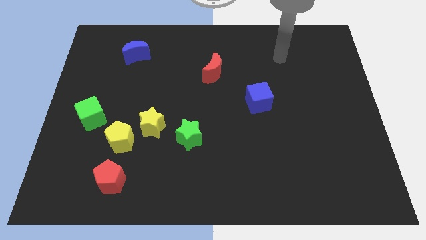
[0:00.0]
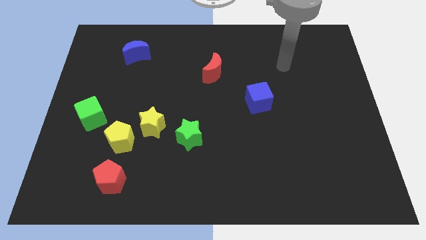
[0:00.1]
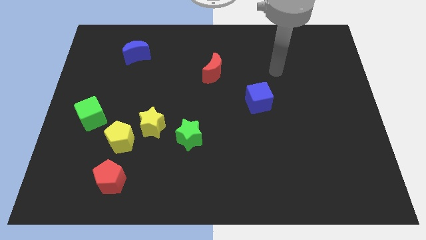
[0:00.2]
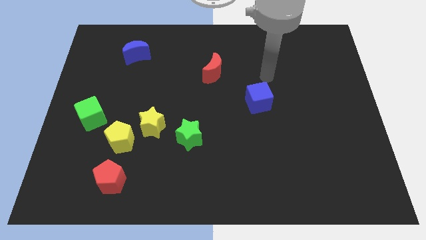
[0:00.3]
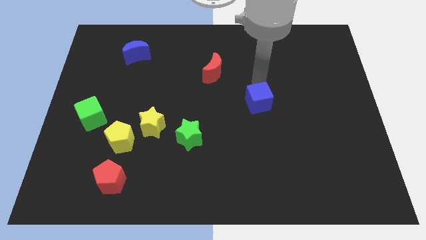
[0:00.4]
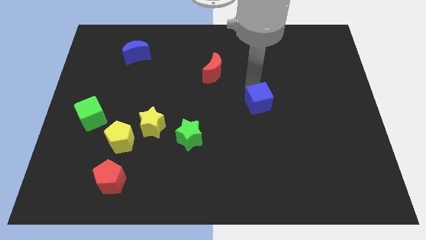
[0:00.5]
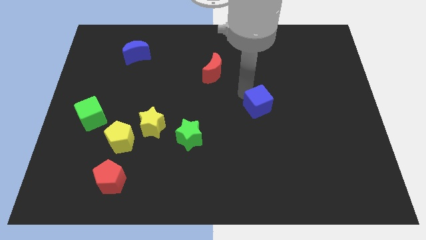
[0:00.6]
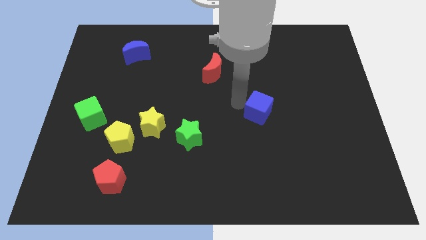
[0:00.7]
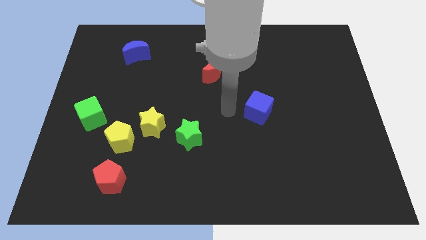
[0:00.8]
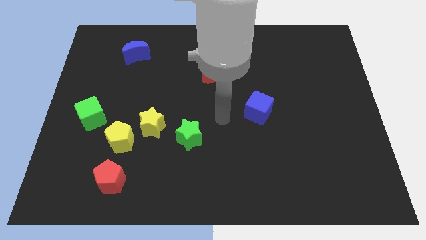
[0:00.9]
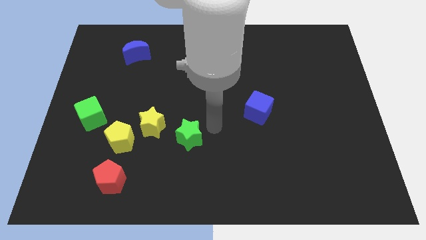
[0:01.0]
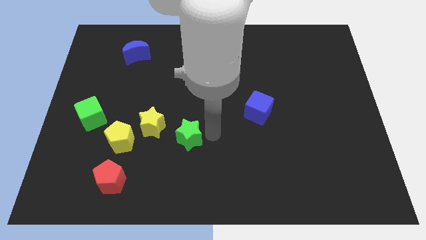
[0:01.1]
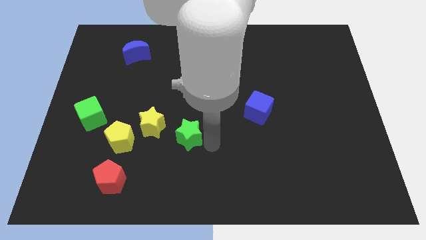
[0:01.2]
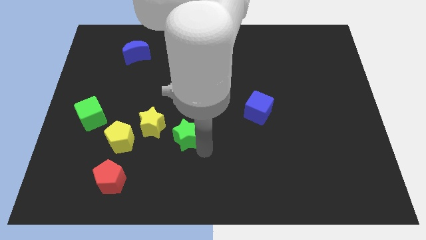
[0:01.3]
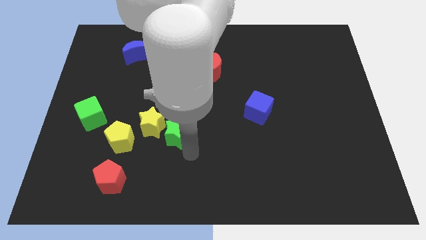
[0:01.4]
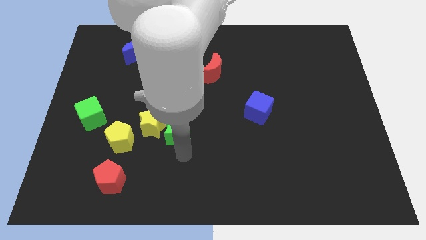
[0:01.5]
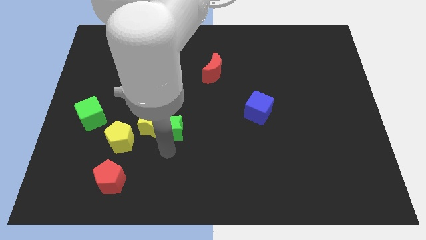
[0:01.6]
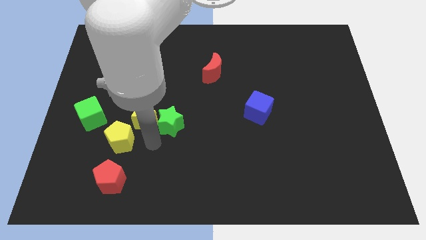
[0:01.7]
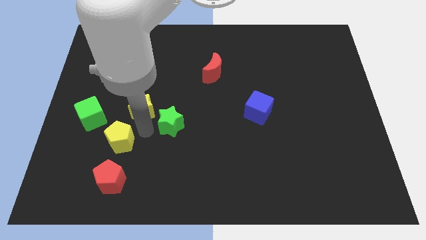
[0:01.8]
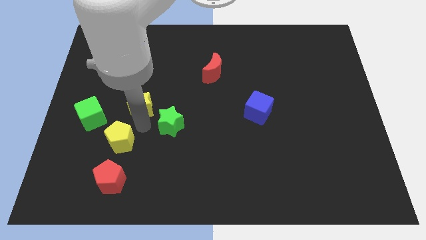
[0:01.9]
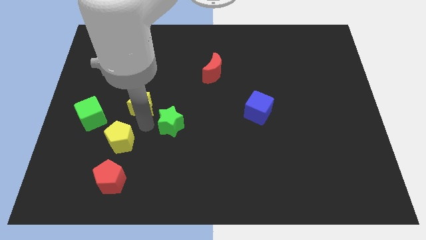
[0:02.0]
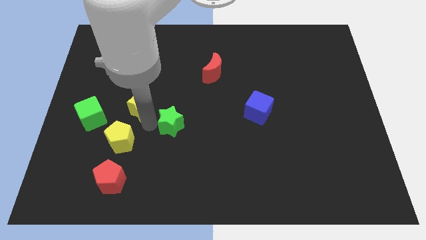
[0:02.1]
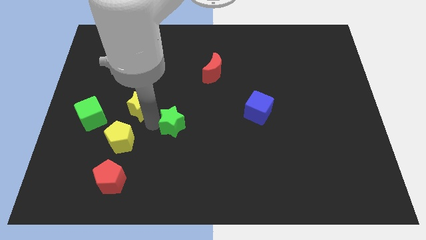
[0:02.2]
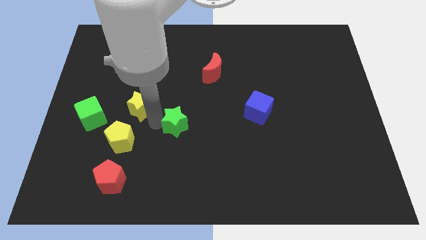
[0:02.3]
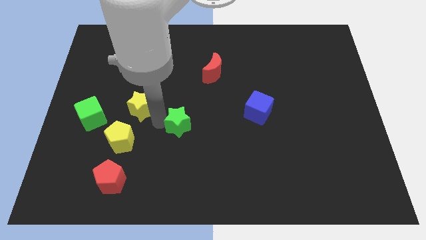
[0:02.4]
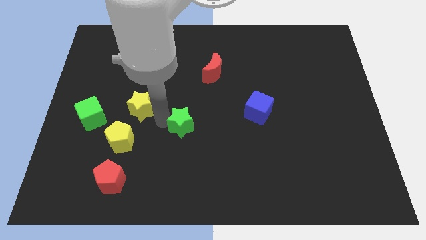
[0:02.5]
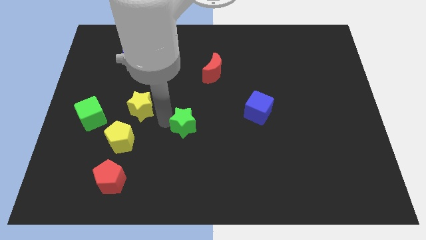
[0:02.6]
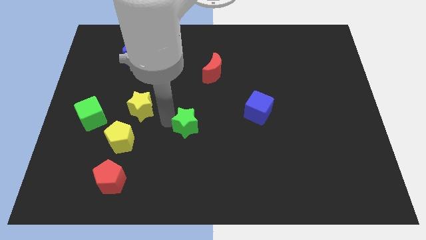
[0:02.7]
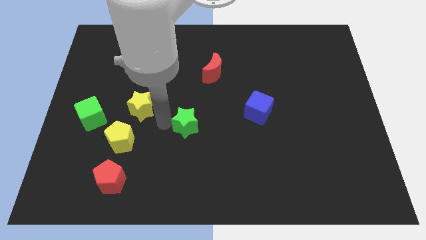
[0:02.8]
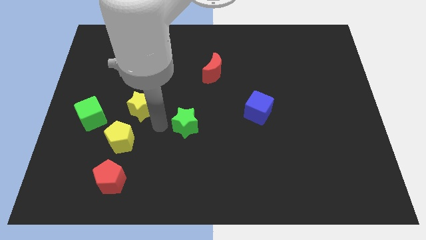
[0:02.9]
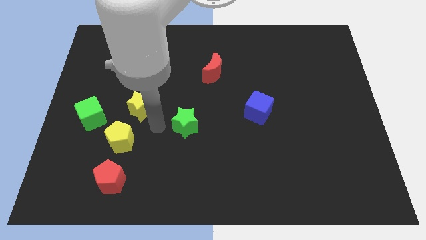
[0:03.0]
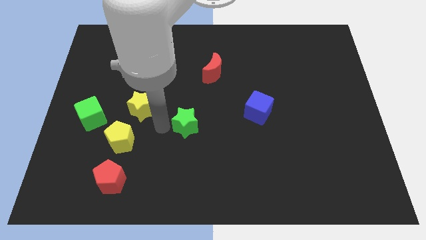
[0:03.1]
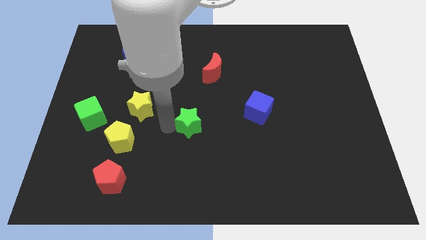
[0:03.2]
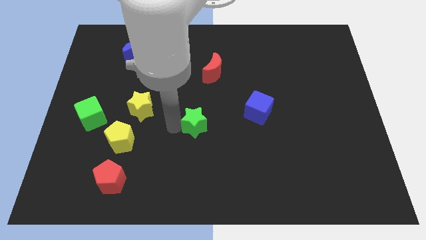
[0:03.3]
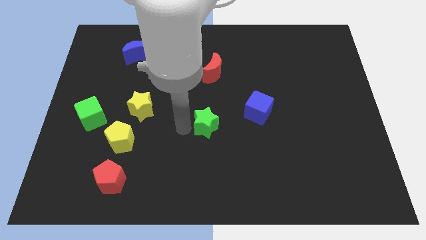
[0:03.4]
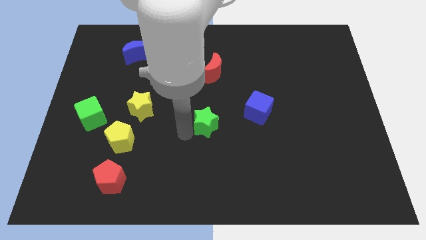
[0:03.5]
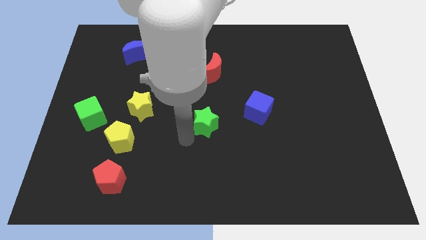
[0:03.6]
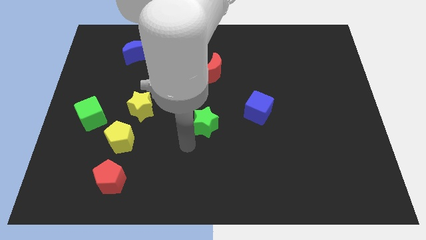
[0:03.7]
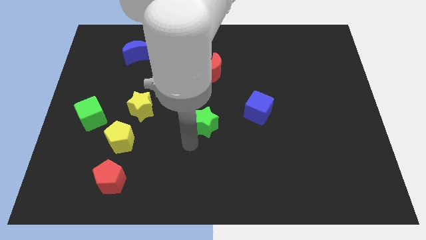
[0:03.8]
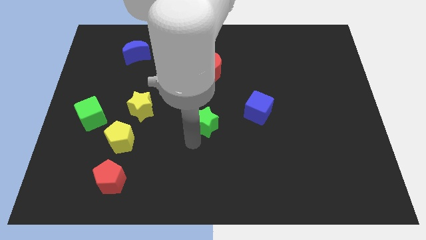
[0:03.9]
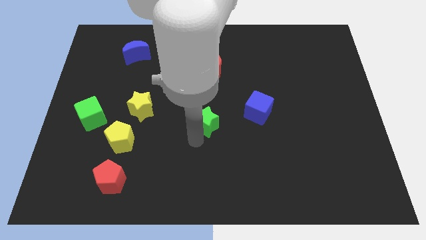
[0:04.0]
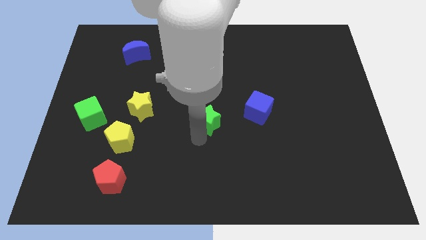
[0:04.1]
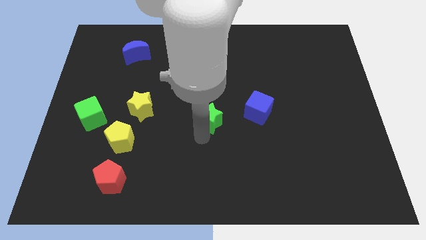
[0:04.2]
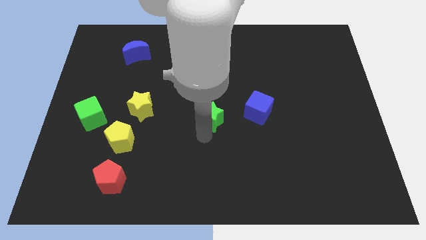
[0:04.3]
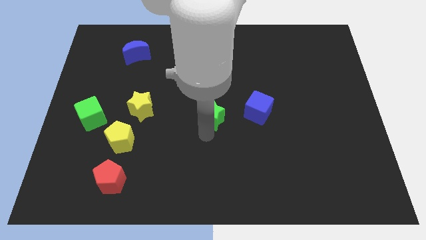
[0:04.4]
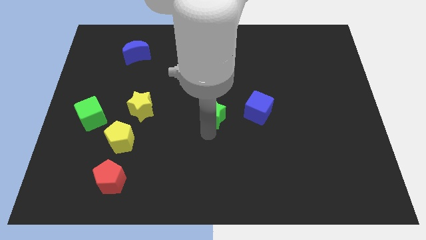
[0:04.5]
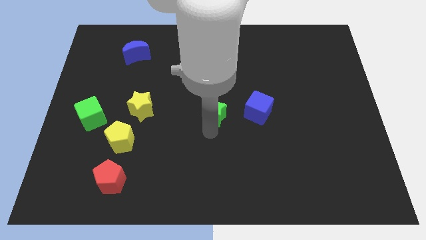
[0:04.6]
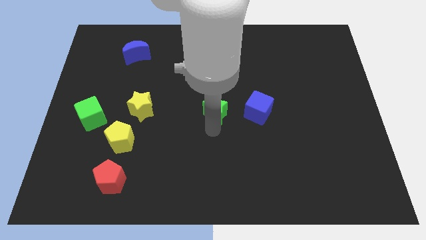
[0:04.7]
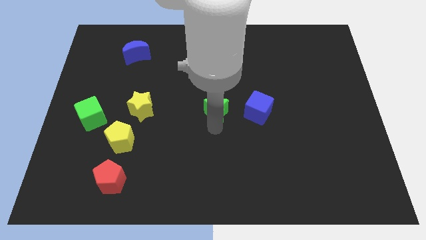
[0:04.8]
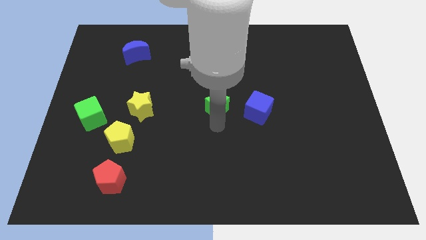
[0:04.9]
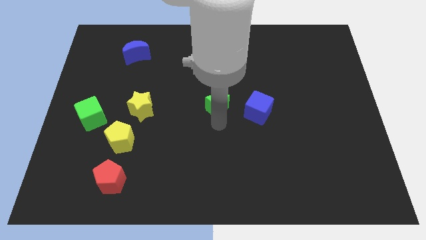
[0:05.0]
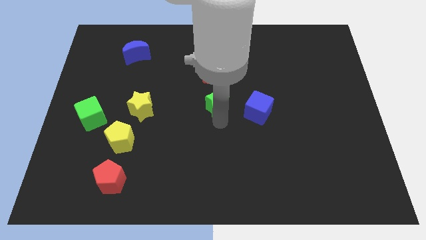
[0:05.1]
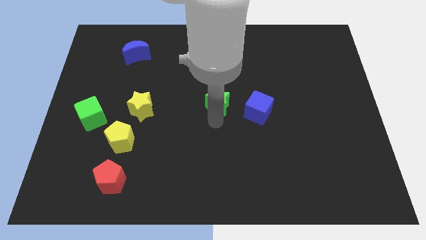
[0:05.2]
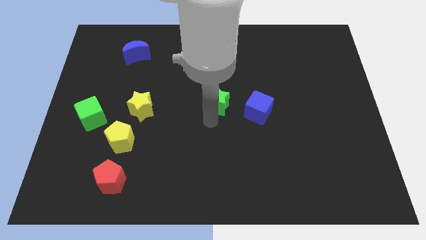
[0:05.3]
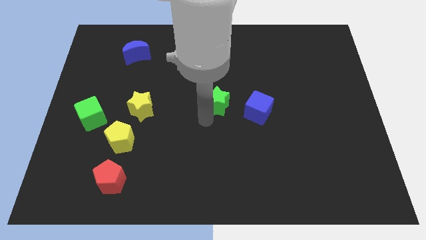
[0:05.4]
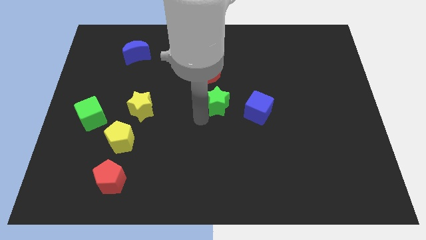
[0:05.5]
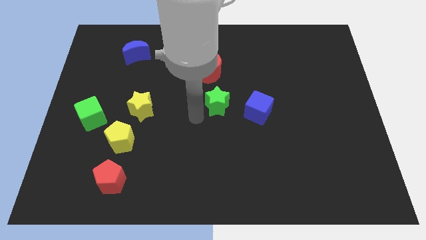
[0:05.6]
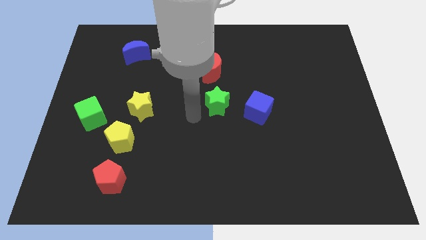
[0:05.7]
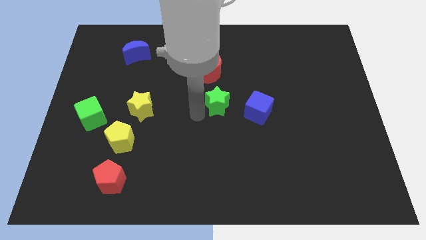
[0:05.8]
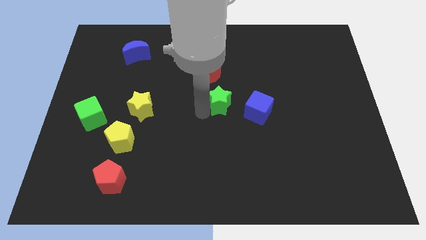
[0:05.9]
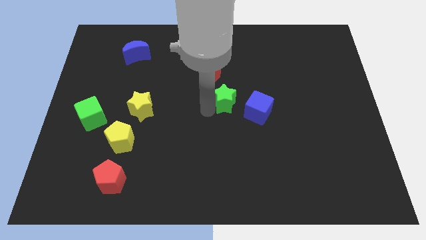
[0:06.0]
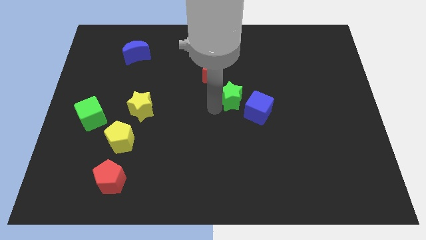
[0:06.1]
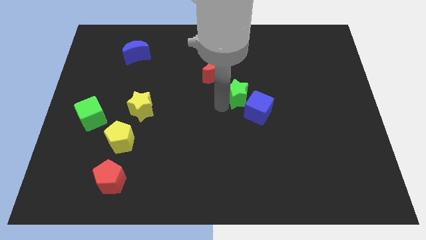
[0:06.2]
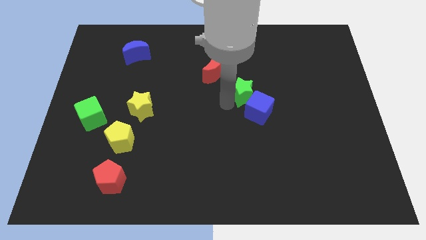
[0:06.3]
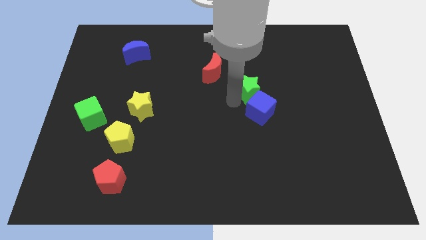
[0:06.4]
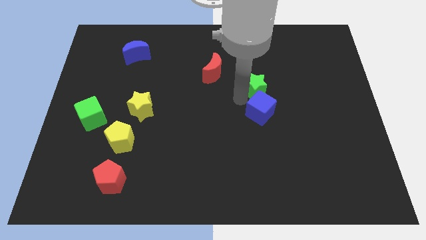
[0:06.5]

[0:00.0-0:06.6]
slide the green star upwards and right diagonally

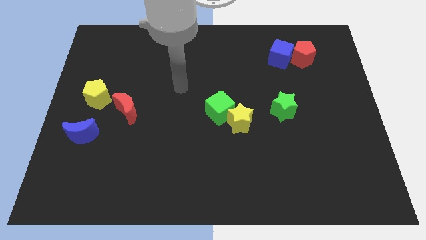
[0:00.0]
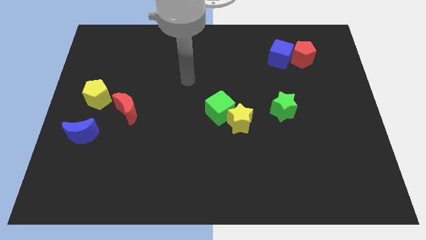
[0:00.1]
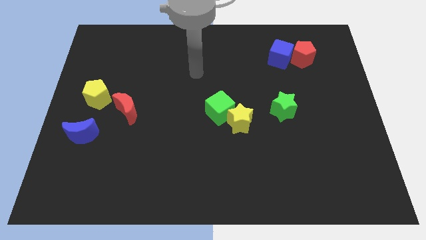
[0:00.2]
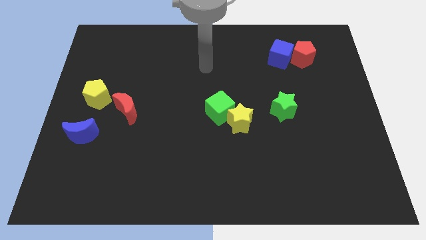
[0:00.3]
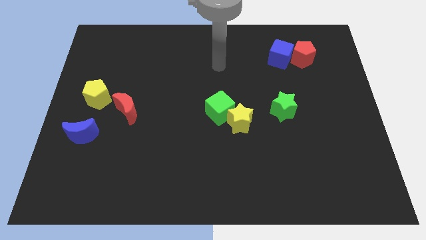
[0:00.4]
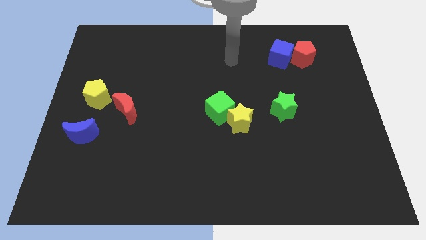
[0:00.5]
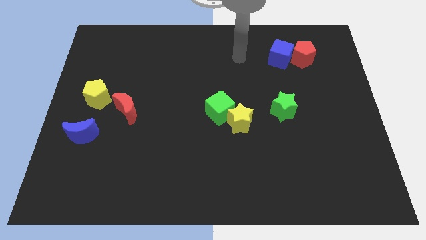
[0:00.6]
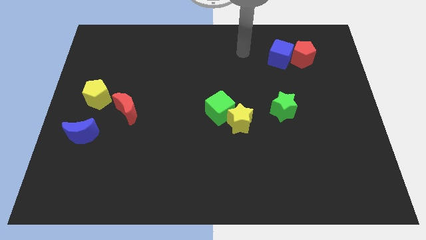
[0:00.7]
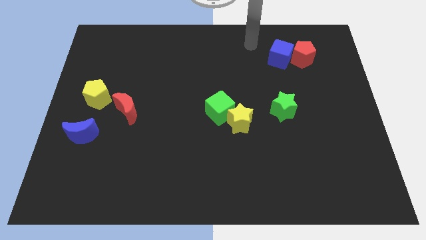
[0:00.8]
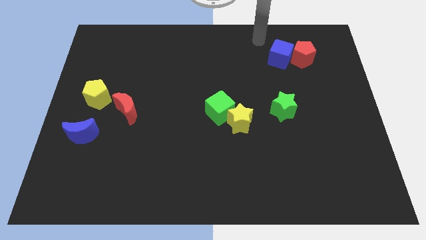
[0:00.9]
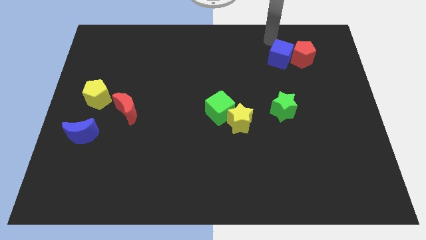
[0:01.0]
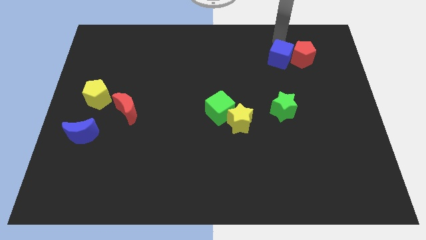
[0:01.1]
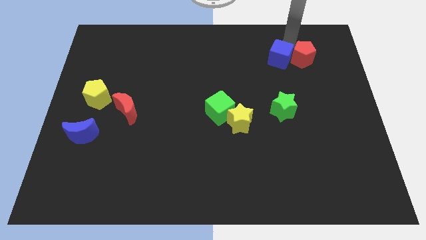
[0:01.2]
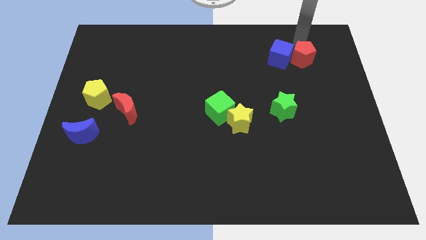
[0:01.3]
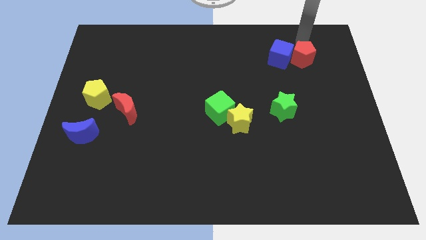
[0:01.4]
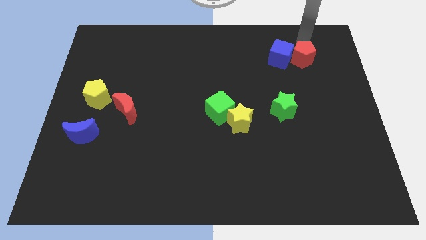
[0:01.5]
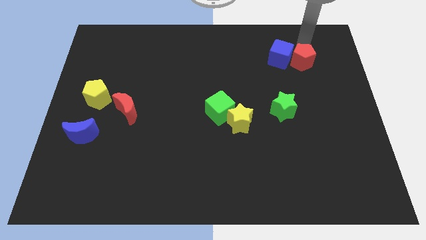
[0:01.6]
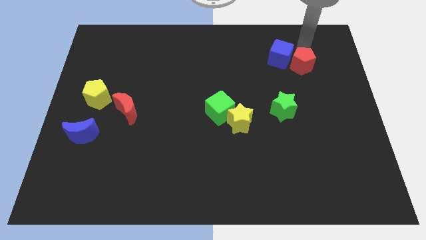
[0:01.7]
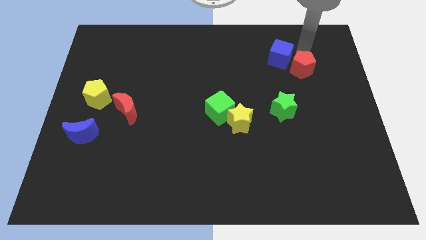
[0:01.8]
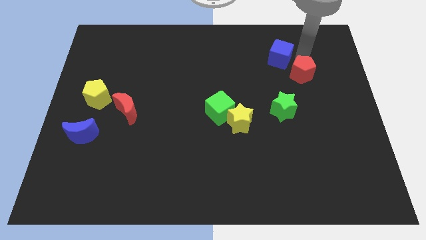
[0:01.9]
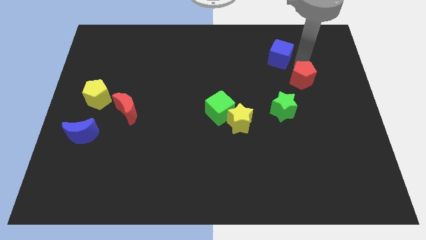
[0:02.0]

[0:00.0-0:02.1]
move the red pentagon down slightly
